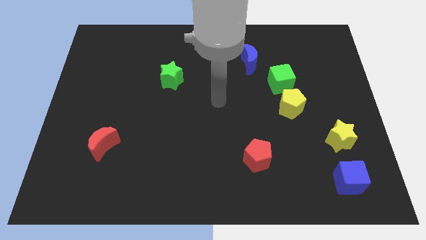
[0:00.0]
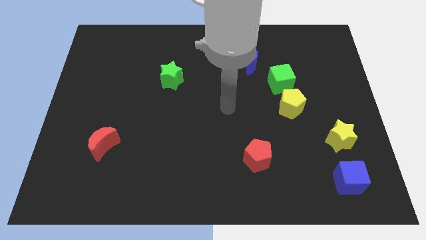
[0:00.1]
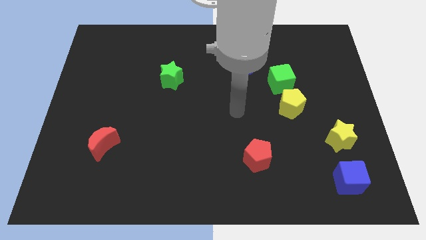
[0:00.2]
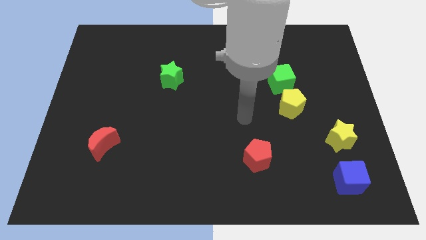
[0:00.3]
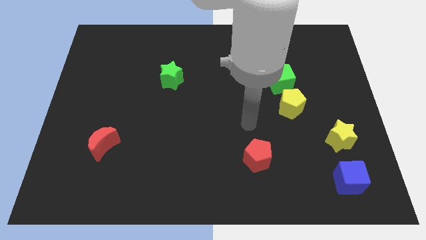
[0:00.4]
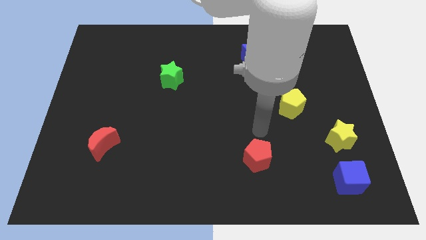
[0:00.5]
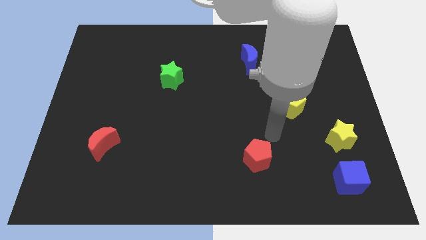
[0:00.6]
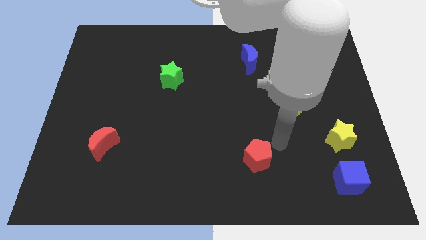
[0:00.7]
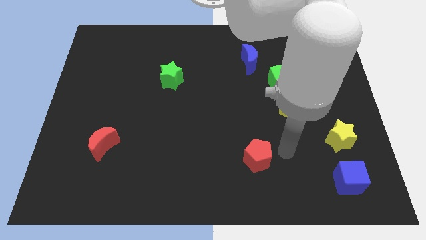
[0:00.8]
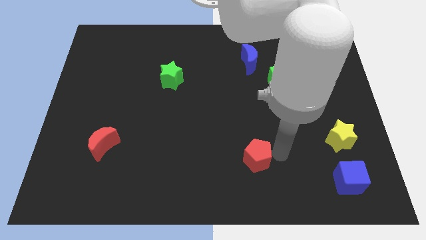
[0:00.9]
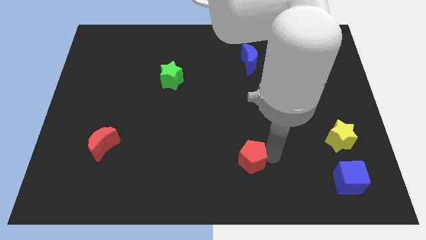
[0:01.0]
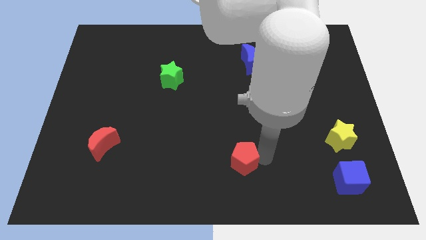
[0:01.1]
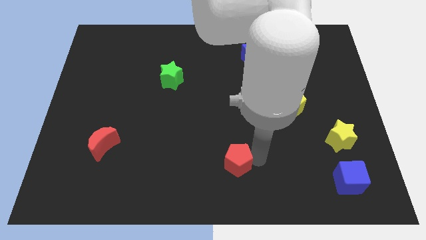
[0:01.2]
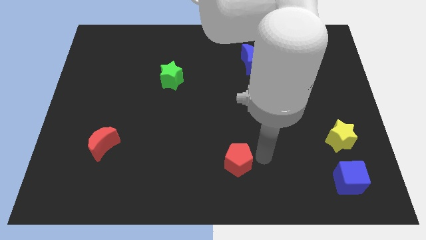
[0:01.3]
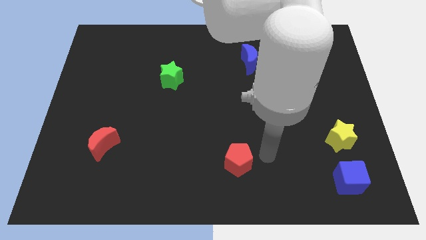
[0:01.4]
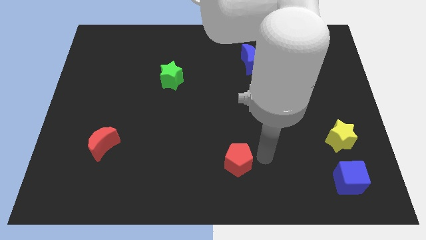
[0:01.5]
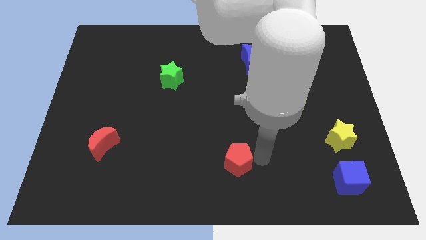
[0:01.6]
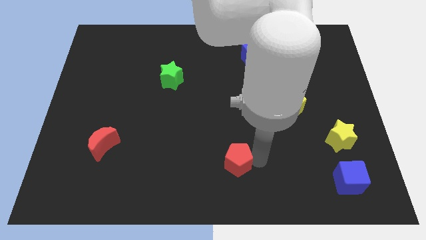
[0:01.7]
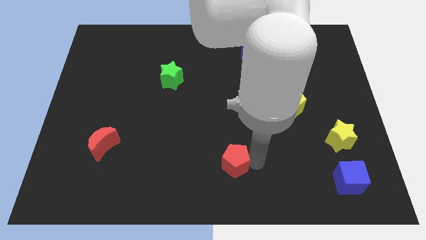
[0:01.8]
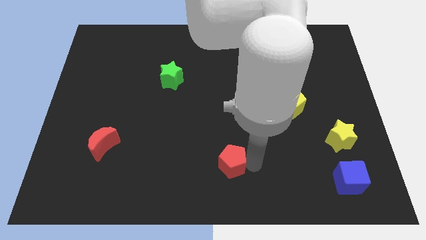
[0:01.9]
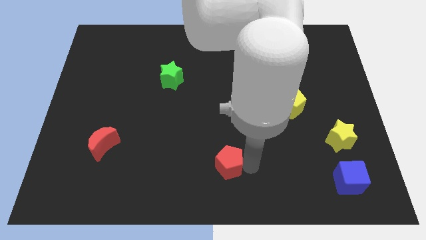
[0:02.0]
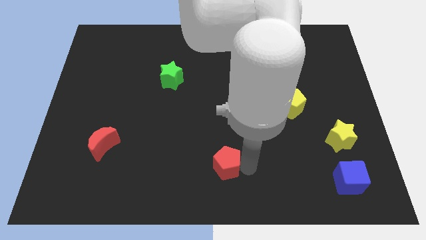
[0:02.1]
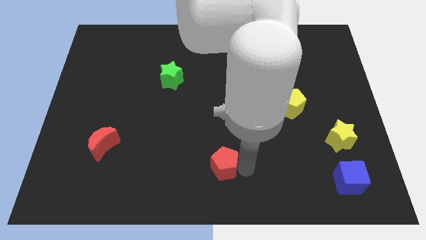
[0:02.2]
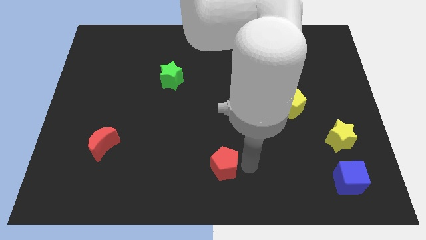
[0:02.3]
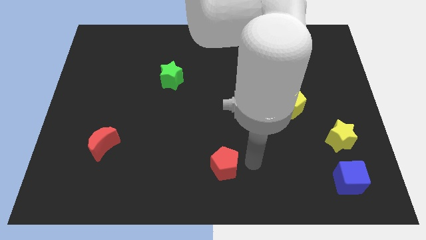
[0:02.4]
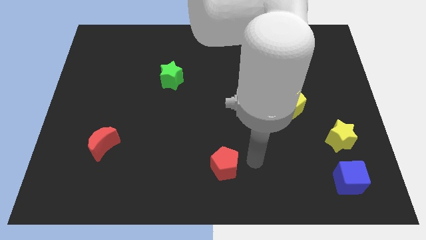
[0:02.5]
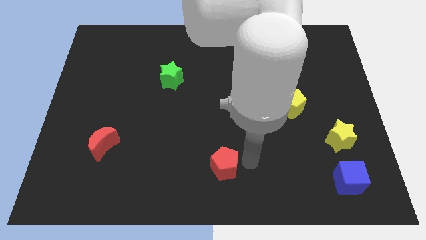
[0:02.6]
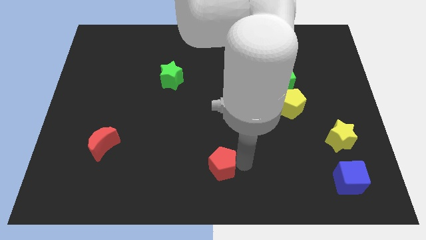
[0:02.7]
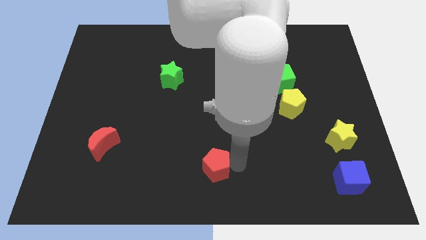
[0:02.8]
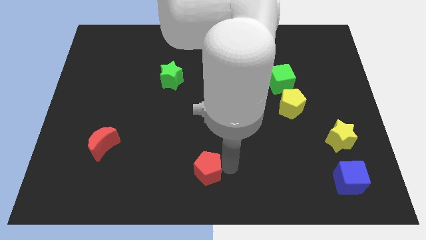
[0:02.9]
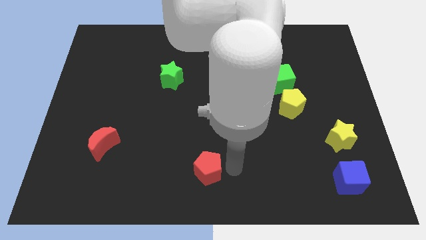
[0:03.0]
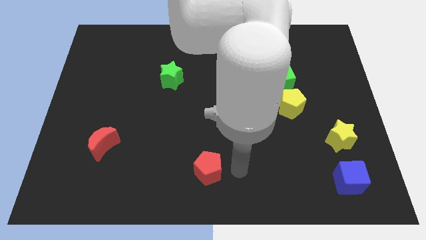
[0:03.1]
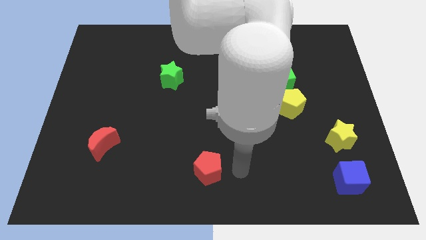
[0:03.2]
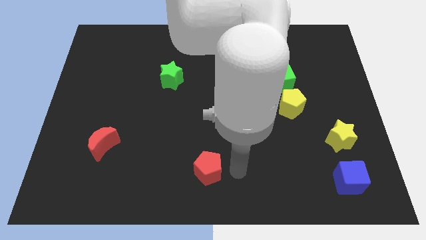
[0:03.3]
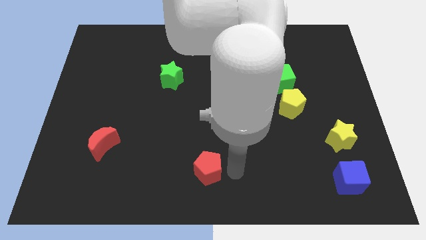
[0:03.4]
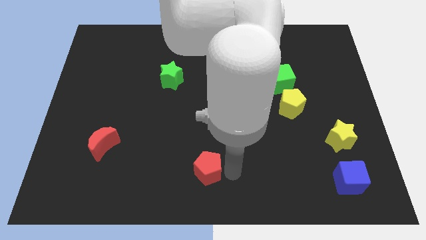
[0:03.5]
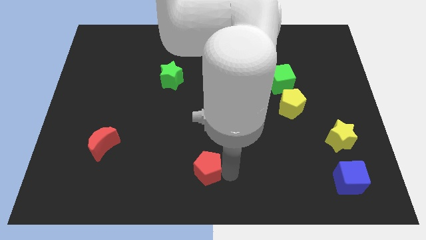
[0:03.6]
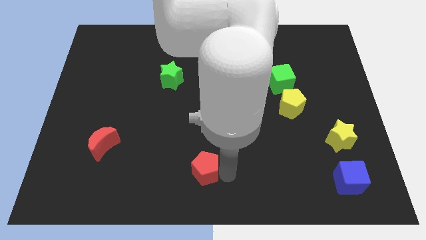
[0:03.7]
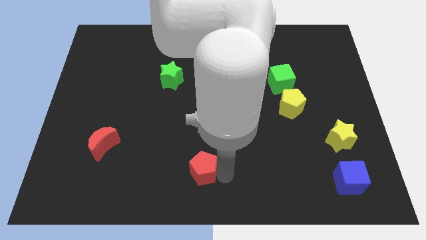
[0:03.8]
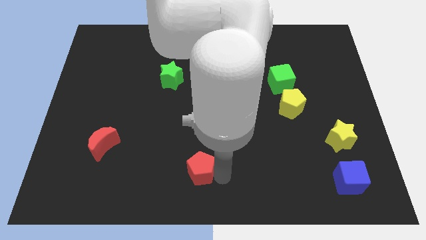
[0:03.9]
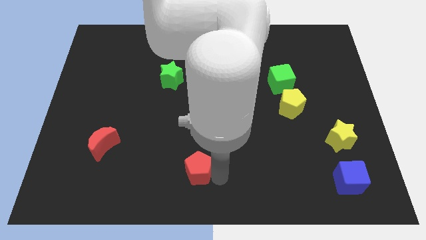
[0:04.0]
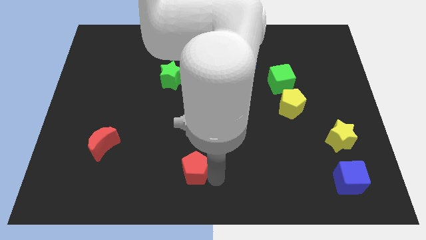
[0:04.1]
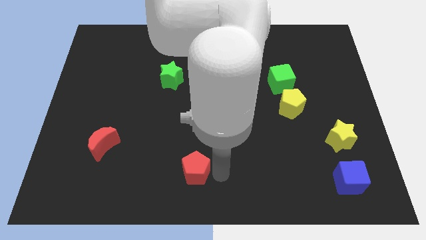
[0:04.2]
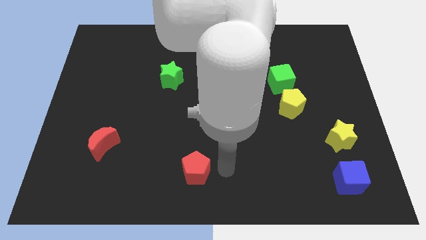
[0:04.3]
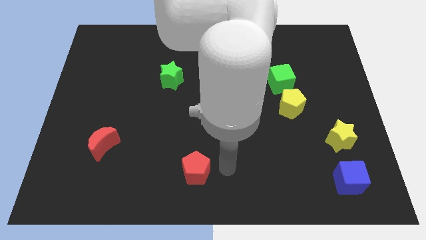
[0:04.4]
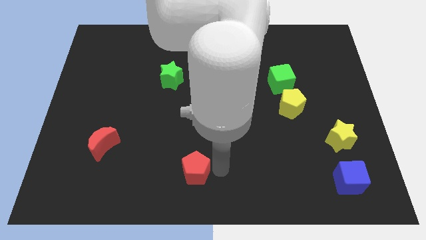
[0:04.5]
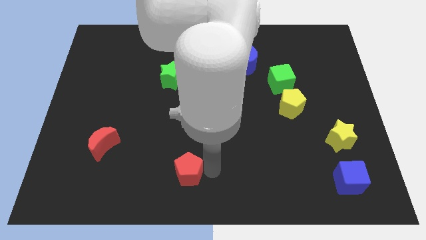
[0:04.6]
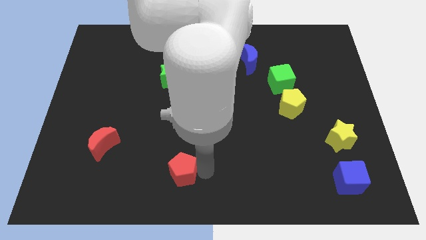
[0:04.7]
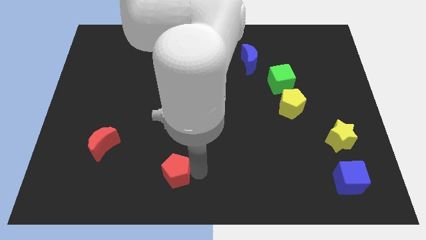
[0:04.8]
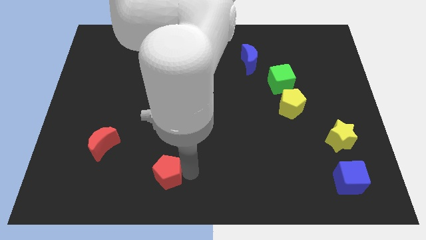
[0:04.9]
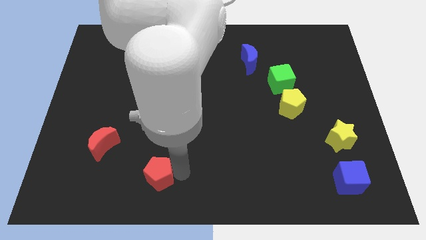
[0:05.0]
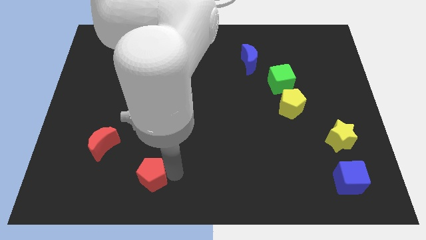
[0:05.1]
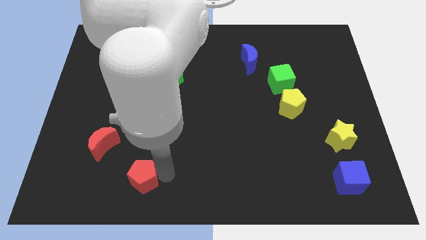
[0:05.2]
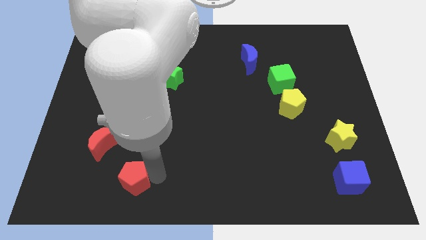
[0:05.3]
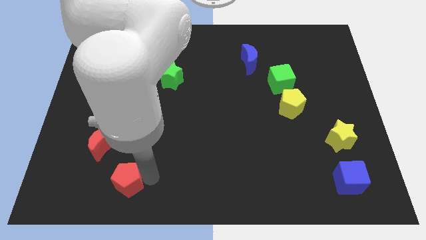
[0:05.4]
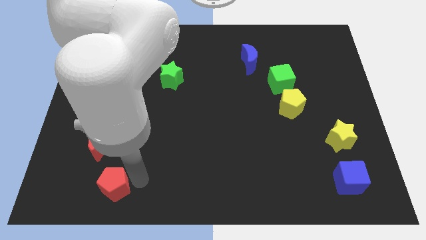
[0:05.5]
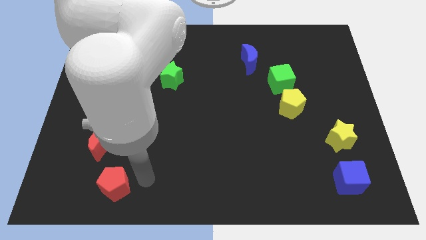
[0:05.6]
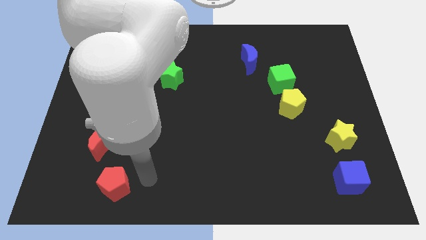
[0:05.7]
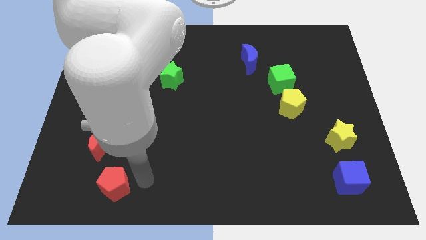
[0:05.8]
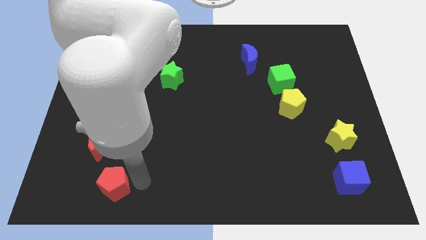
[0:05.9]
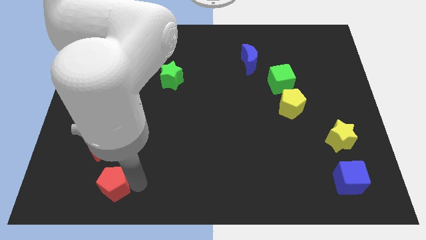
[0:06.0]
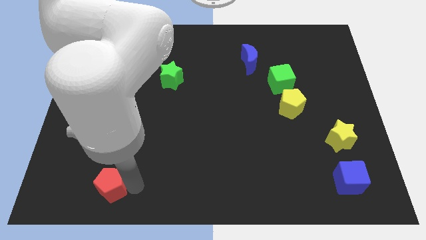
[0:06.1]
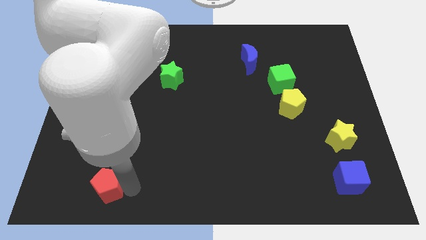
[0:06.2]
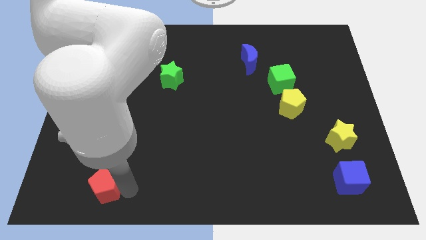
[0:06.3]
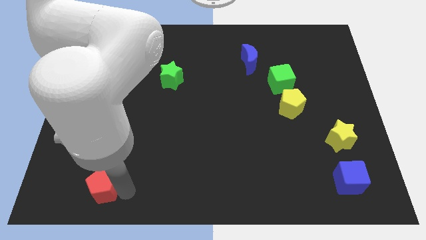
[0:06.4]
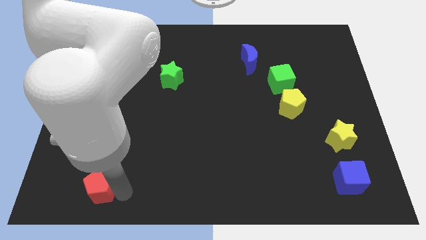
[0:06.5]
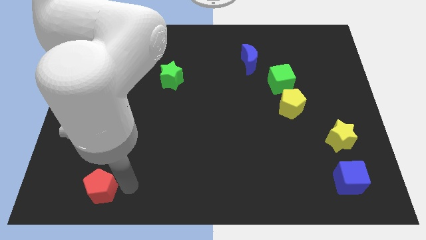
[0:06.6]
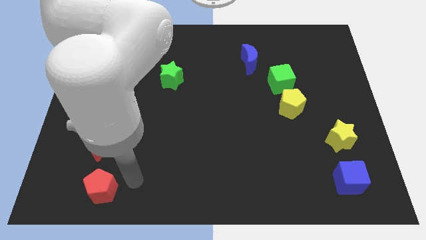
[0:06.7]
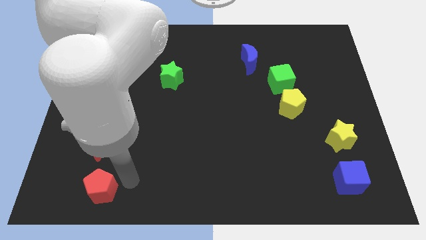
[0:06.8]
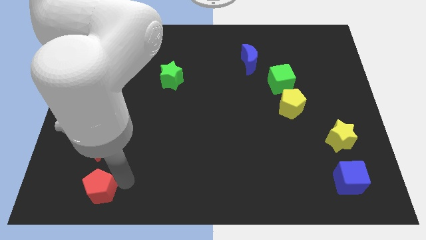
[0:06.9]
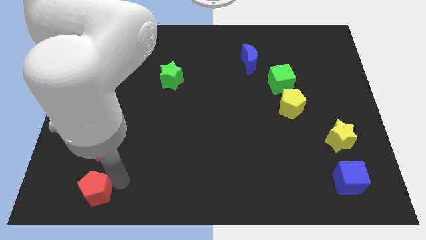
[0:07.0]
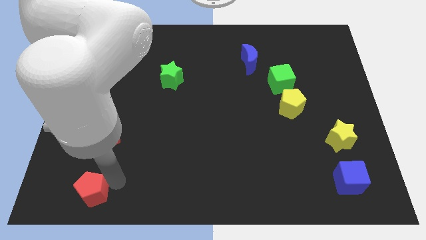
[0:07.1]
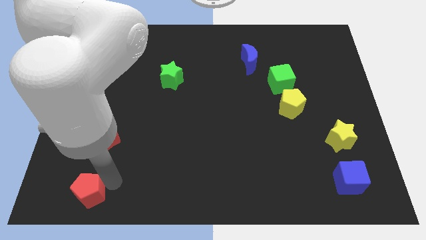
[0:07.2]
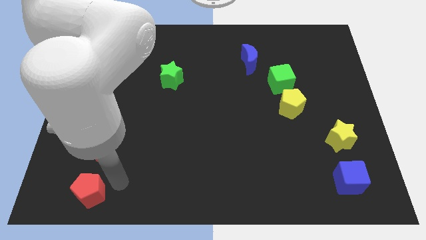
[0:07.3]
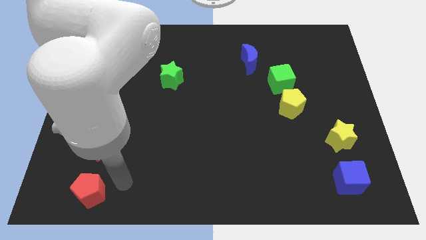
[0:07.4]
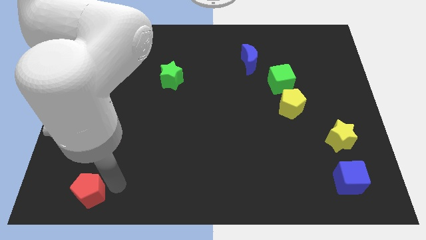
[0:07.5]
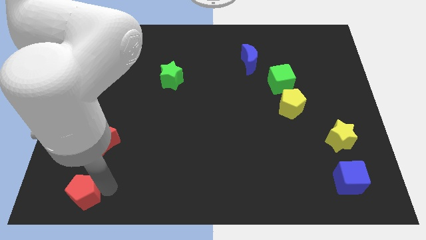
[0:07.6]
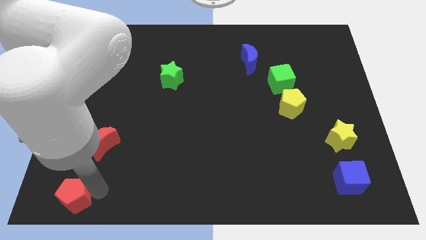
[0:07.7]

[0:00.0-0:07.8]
slide the red pentagon to the bottom left corner
